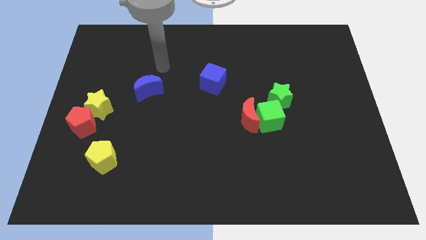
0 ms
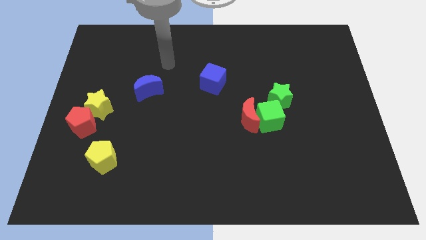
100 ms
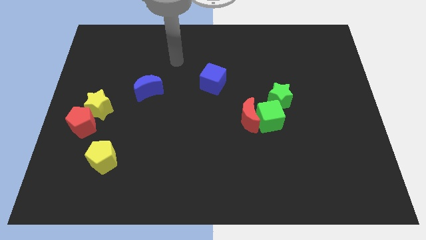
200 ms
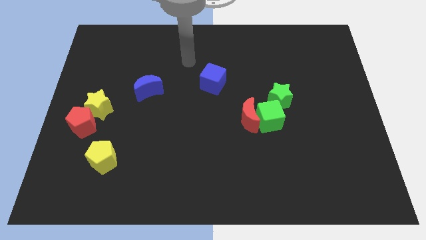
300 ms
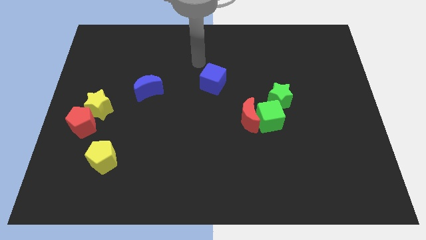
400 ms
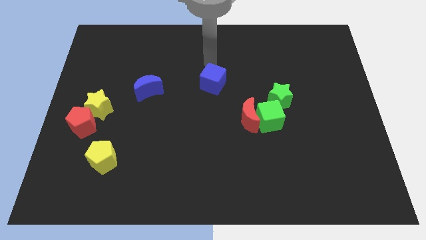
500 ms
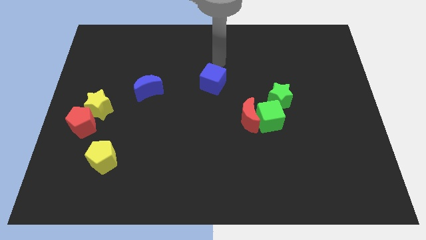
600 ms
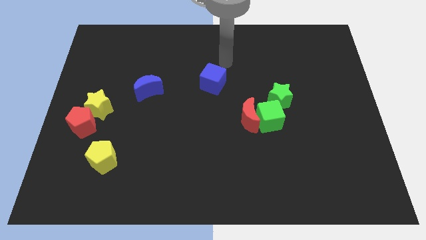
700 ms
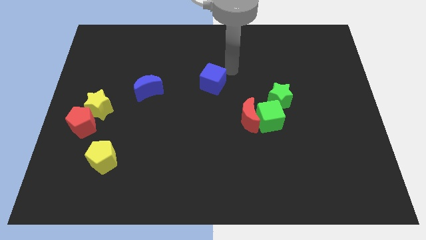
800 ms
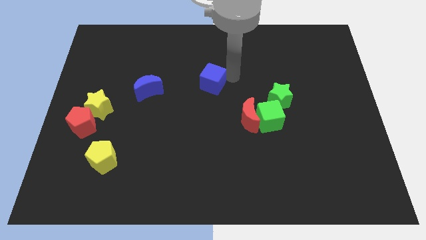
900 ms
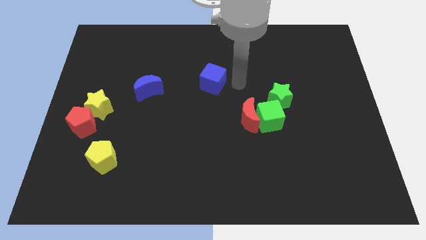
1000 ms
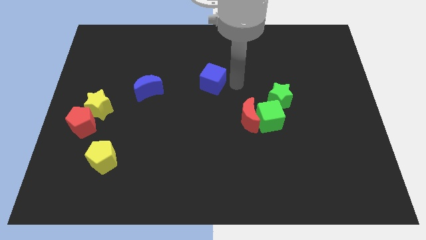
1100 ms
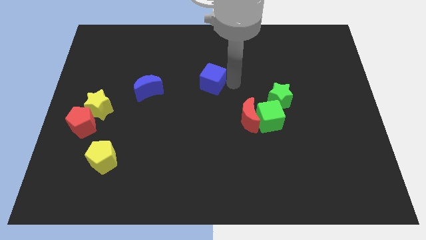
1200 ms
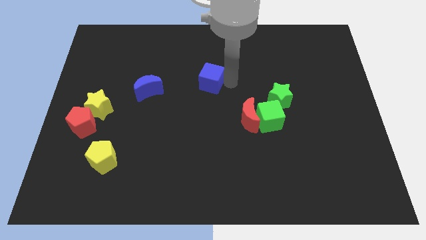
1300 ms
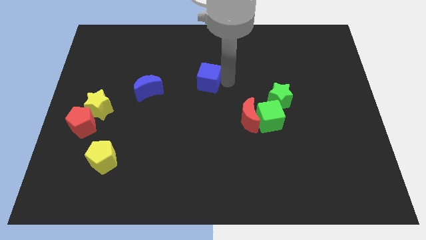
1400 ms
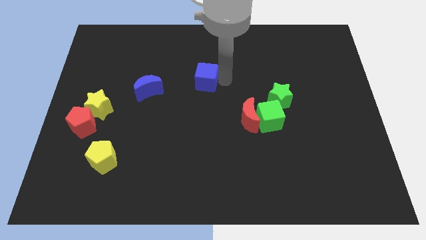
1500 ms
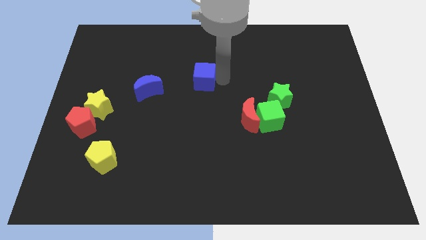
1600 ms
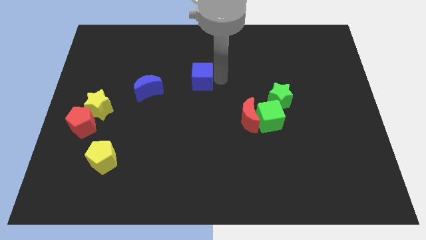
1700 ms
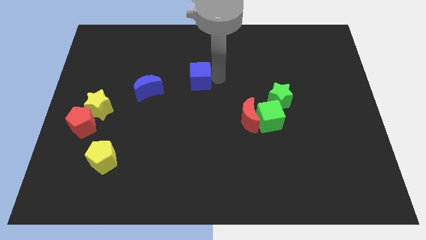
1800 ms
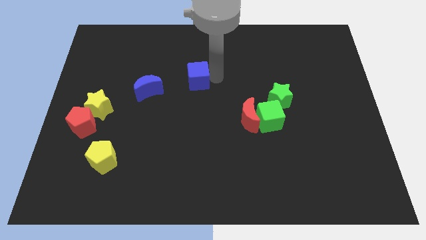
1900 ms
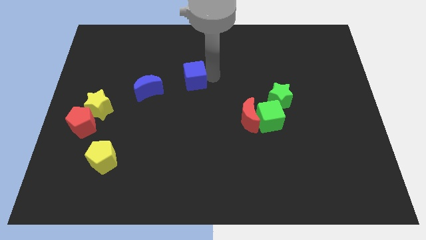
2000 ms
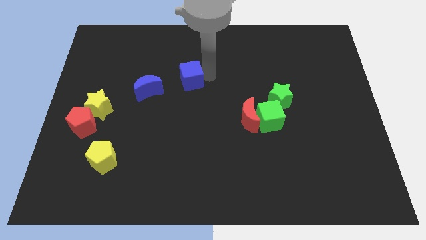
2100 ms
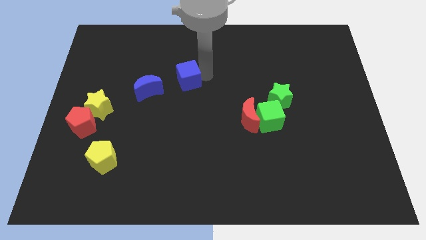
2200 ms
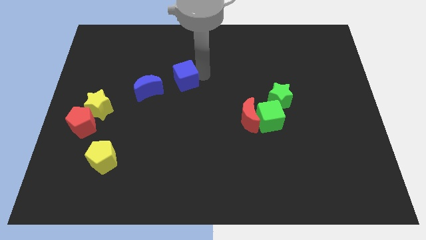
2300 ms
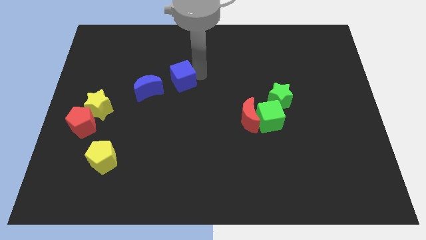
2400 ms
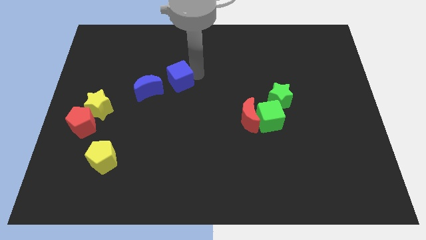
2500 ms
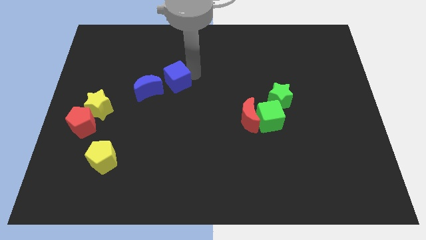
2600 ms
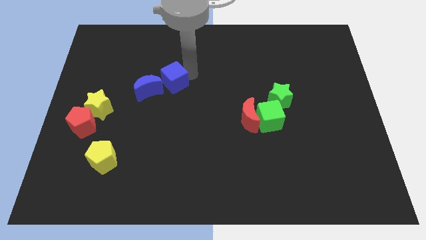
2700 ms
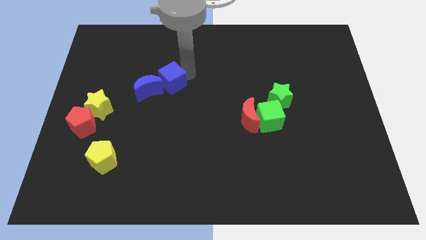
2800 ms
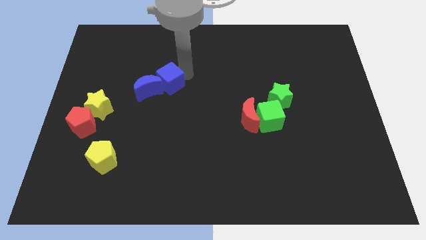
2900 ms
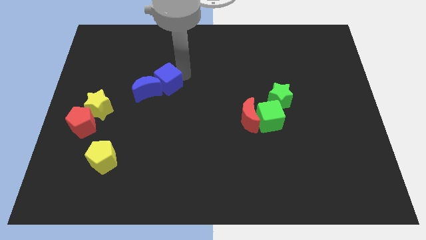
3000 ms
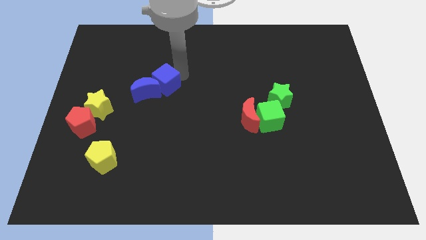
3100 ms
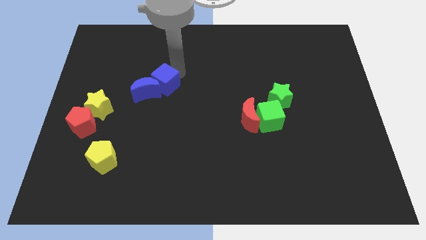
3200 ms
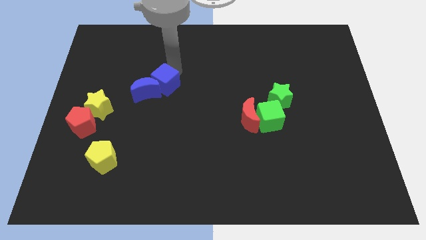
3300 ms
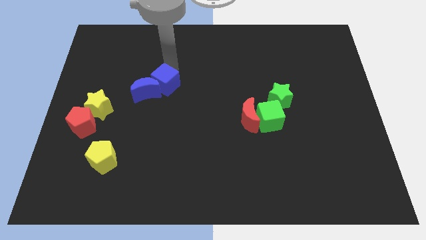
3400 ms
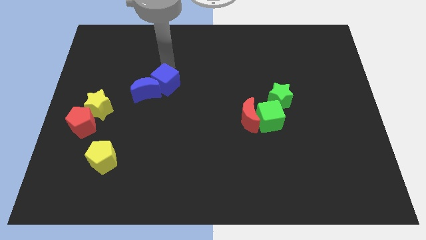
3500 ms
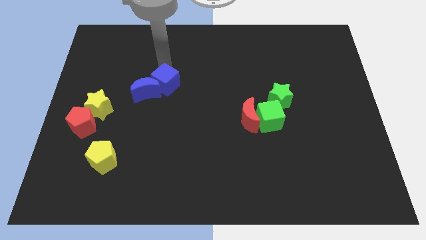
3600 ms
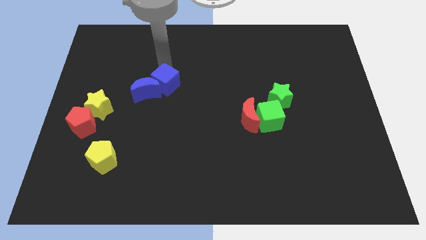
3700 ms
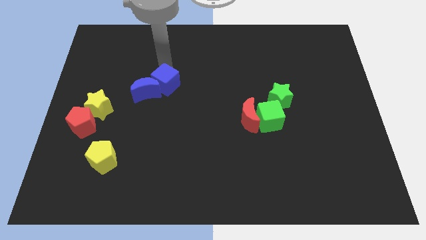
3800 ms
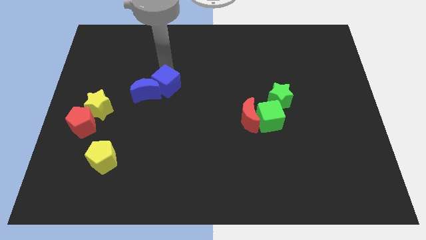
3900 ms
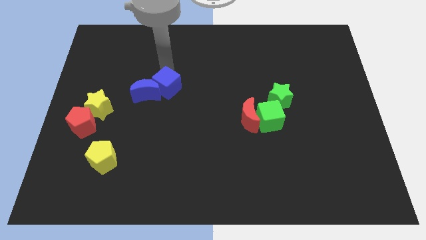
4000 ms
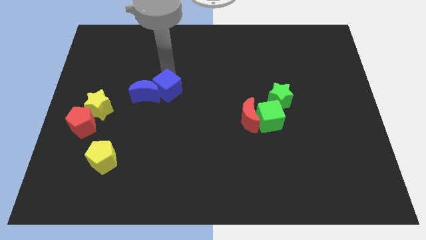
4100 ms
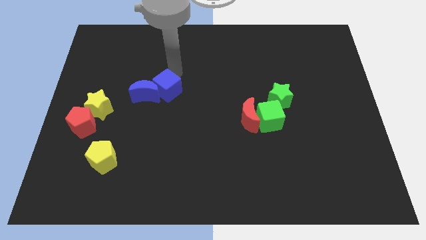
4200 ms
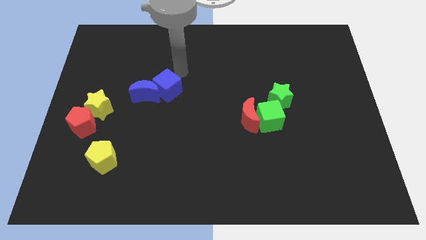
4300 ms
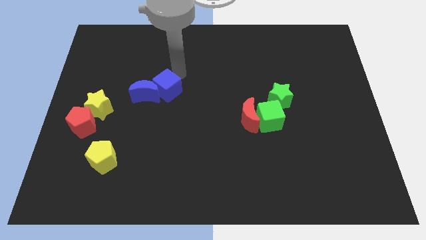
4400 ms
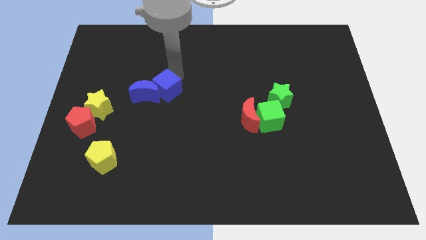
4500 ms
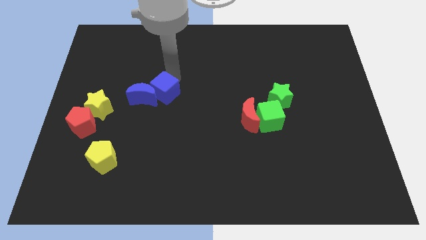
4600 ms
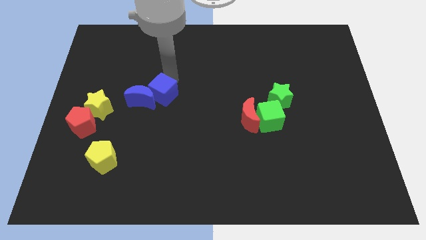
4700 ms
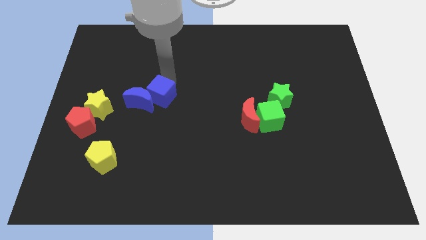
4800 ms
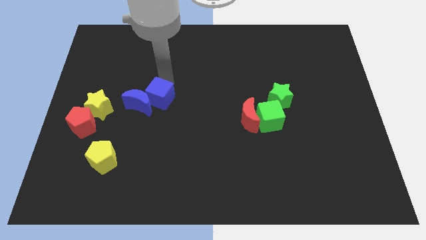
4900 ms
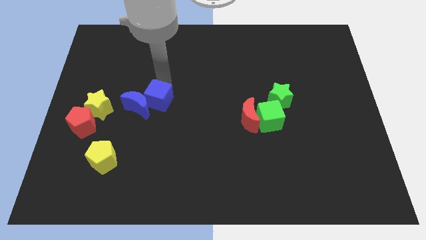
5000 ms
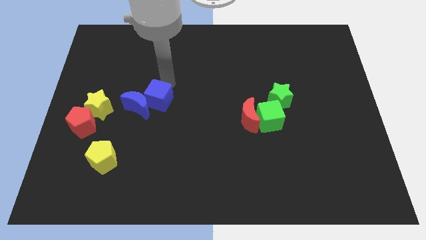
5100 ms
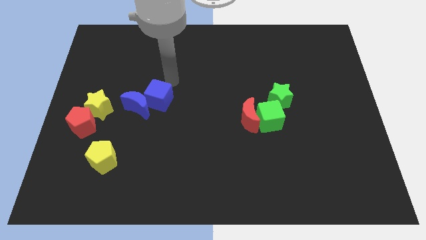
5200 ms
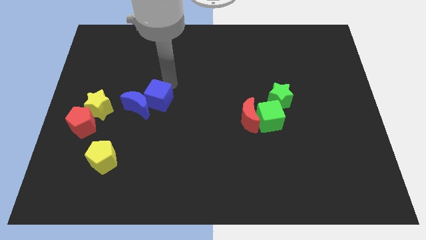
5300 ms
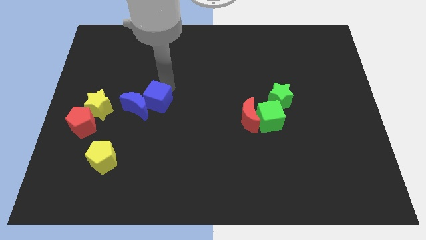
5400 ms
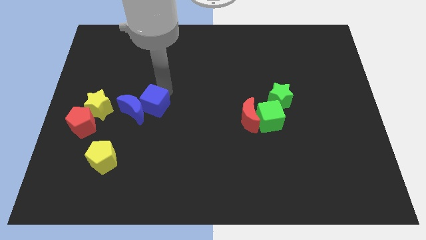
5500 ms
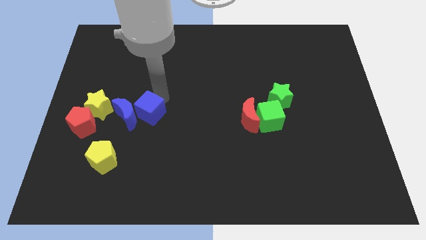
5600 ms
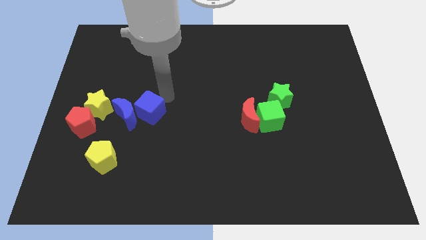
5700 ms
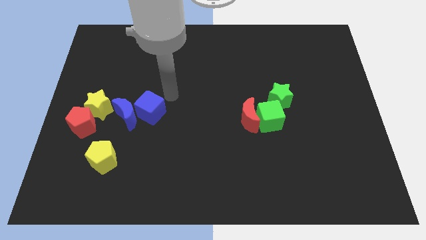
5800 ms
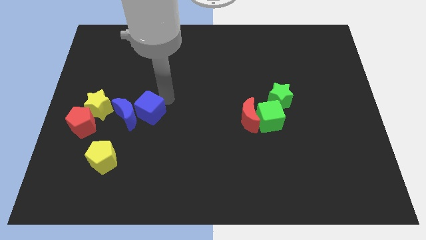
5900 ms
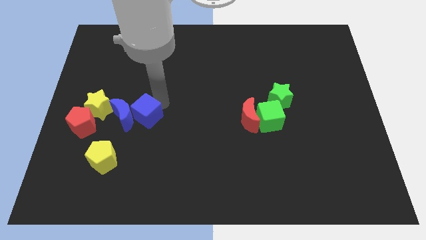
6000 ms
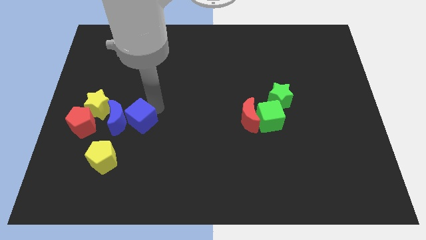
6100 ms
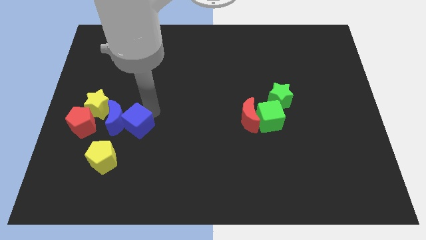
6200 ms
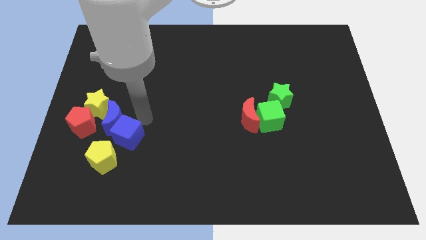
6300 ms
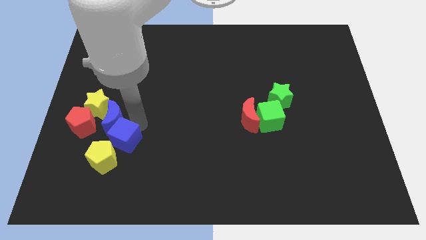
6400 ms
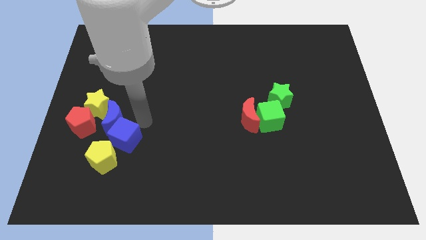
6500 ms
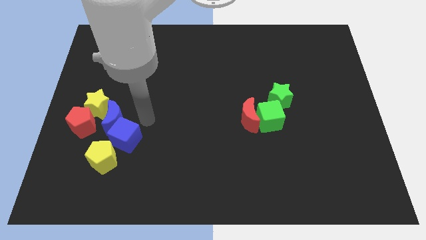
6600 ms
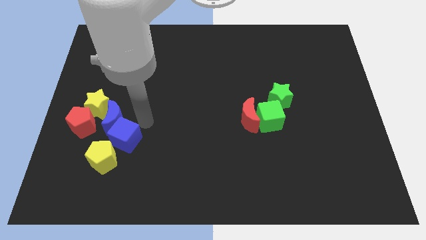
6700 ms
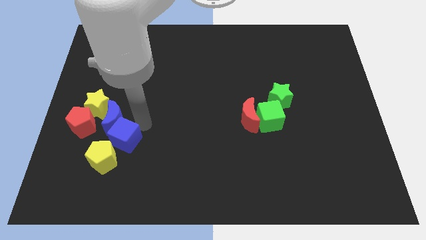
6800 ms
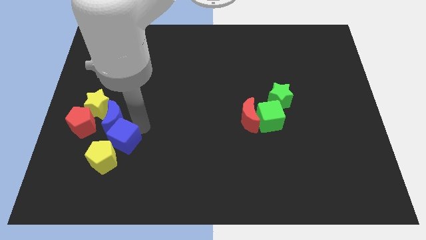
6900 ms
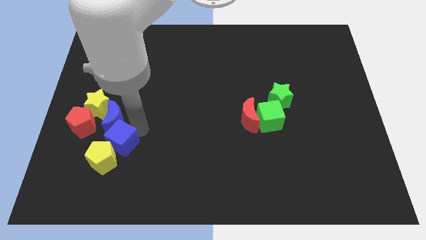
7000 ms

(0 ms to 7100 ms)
slide the blue cube next to the yellow pentagon
